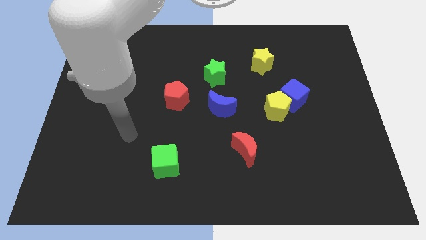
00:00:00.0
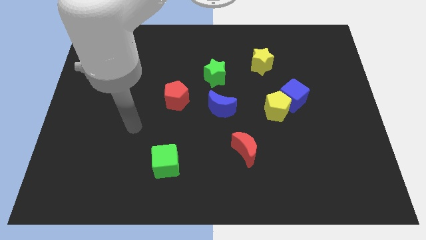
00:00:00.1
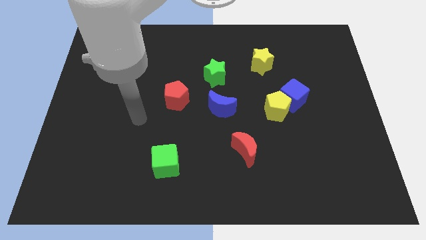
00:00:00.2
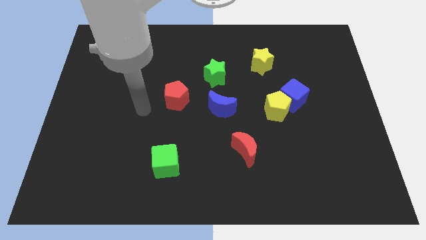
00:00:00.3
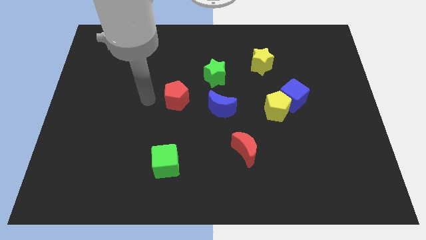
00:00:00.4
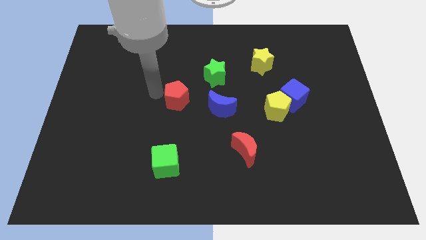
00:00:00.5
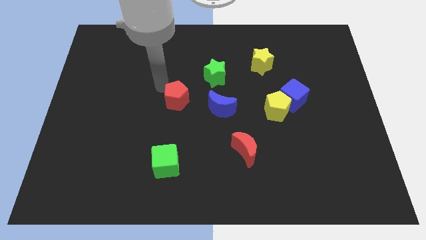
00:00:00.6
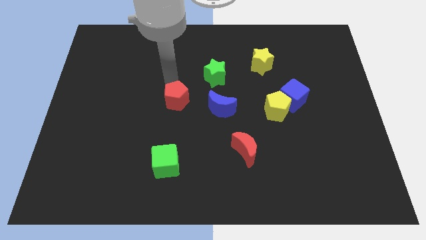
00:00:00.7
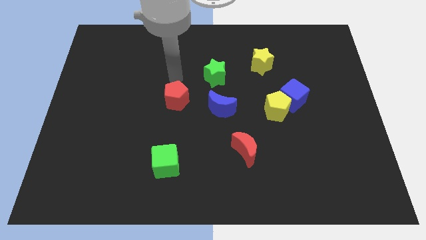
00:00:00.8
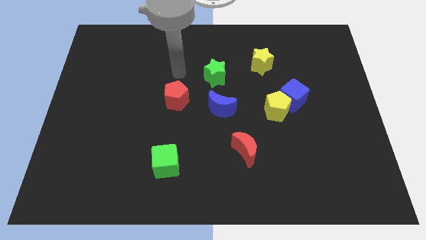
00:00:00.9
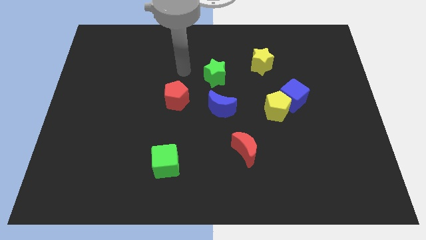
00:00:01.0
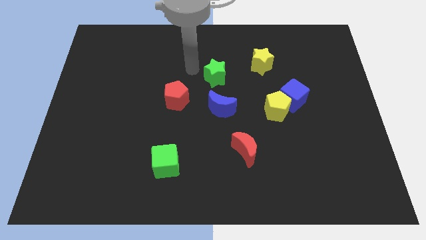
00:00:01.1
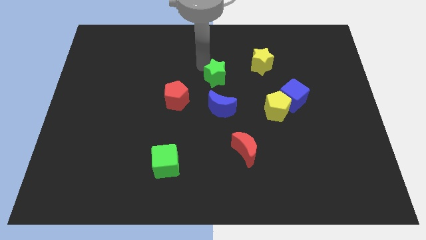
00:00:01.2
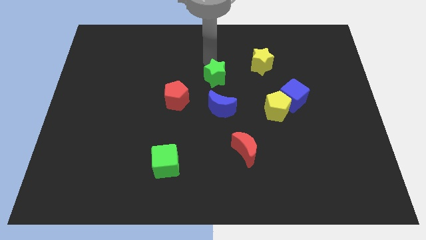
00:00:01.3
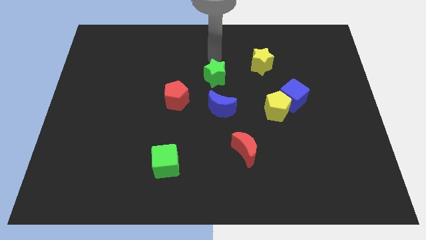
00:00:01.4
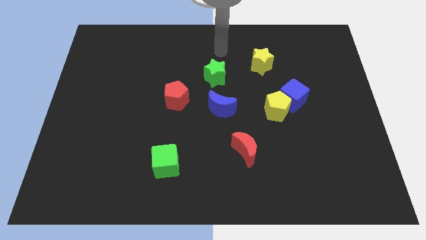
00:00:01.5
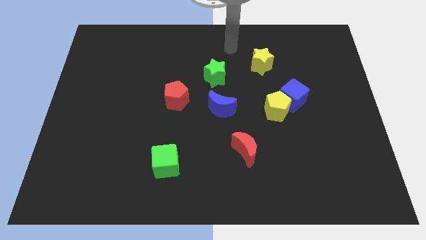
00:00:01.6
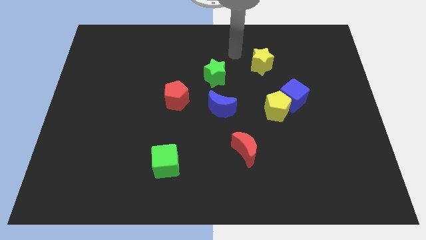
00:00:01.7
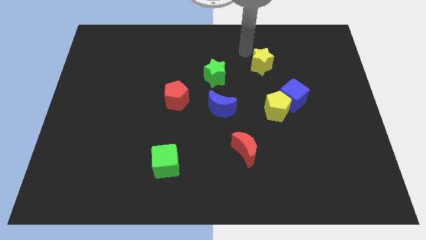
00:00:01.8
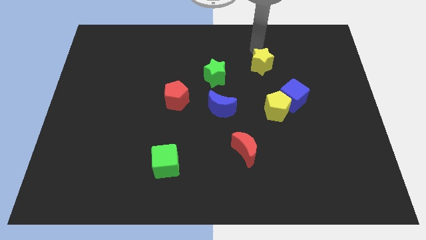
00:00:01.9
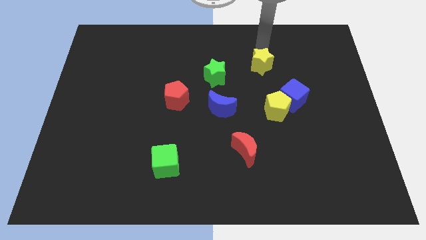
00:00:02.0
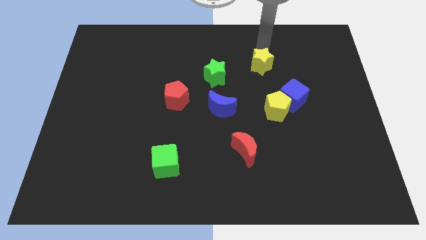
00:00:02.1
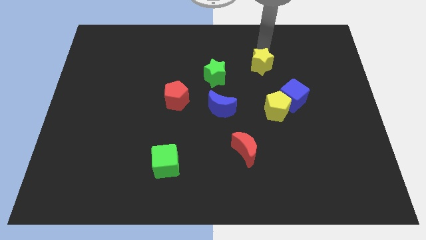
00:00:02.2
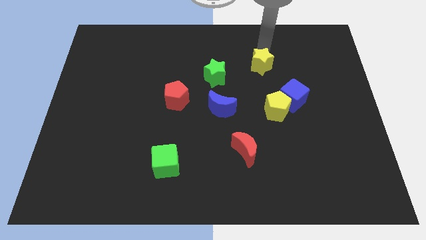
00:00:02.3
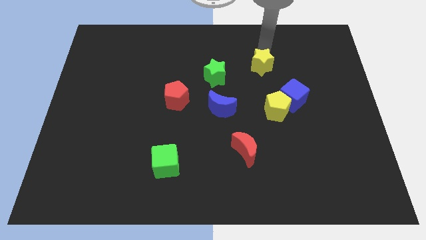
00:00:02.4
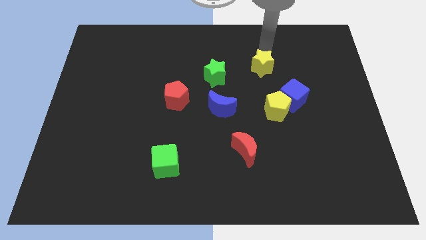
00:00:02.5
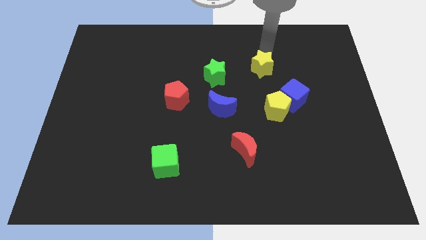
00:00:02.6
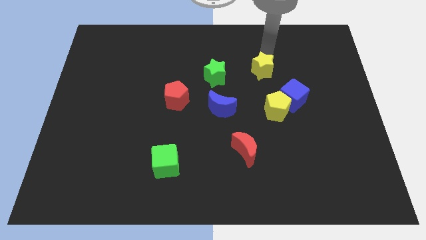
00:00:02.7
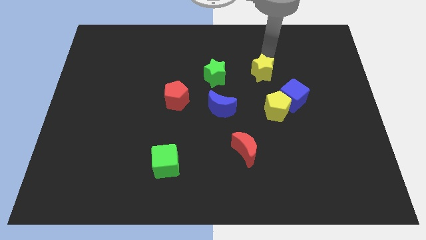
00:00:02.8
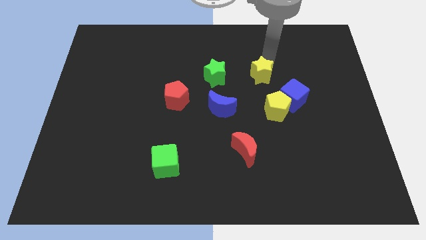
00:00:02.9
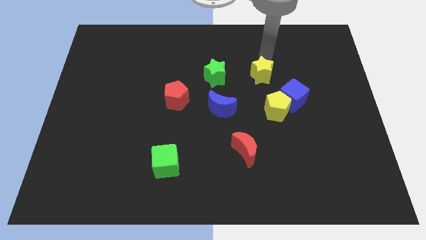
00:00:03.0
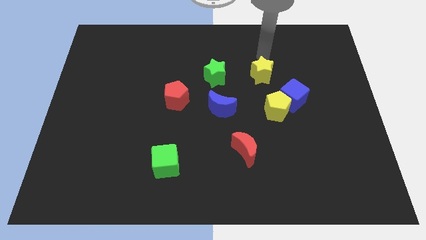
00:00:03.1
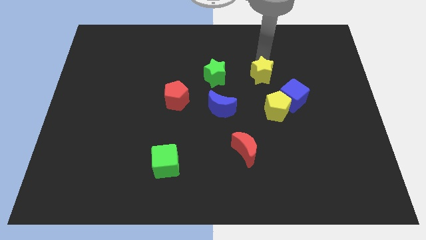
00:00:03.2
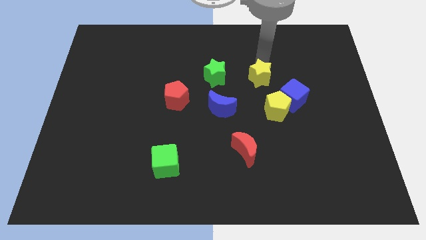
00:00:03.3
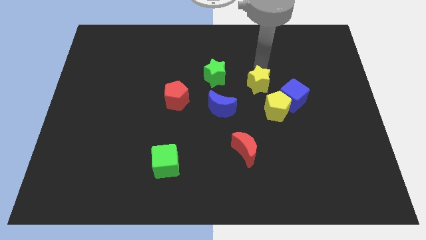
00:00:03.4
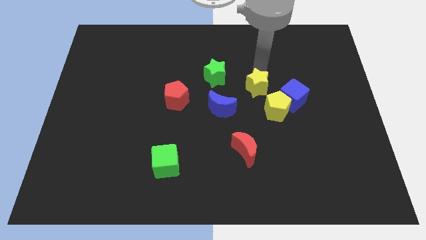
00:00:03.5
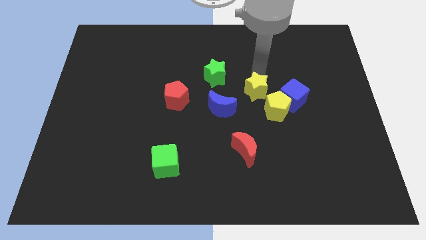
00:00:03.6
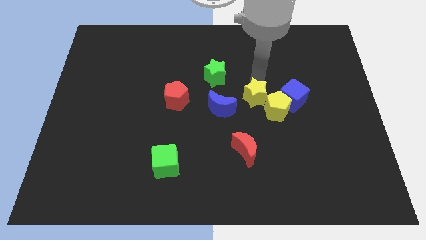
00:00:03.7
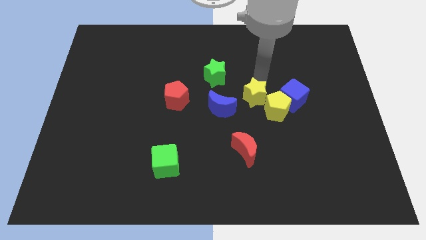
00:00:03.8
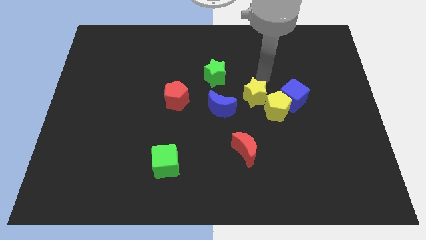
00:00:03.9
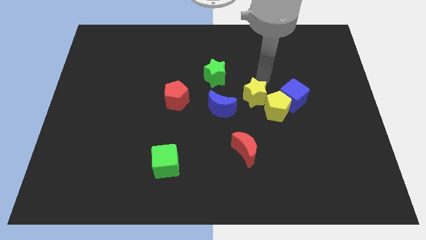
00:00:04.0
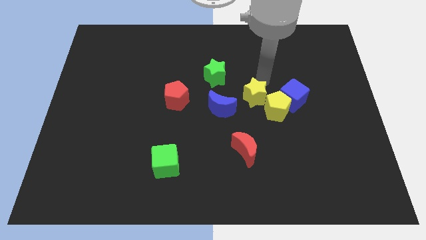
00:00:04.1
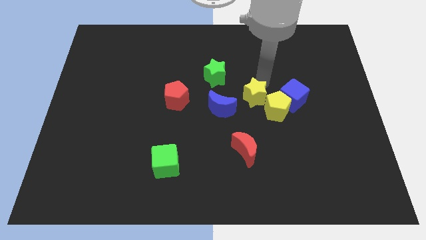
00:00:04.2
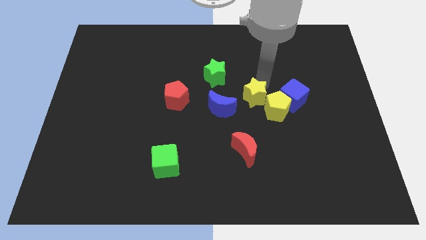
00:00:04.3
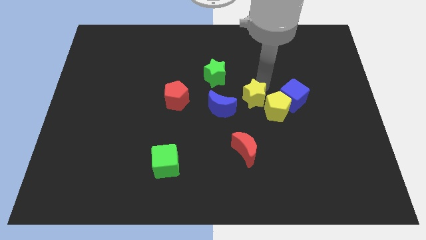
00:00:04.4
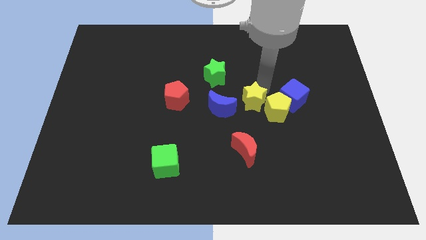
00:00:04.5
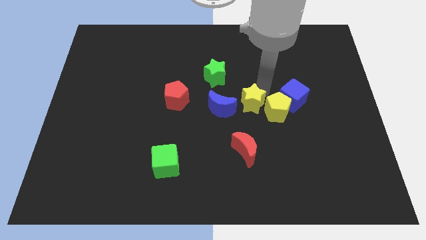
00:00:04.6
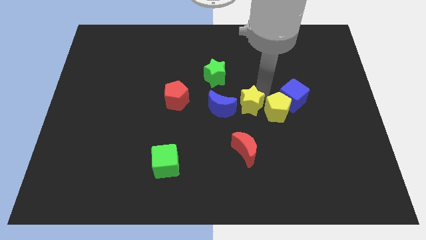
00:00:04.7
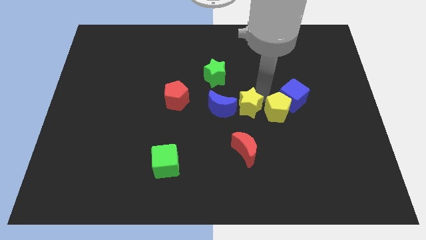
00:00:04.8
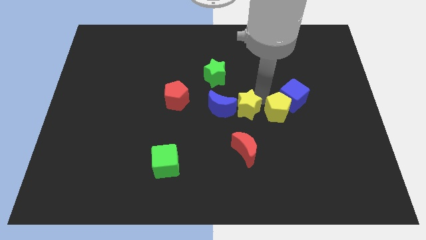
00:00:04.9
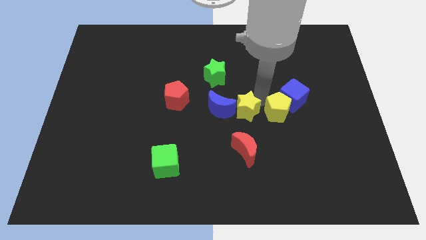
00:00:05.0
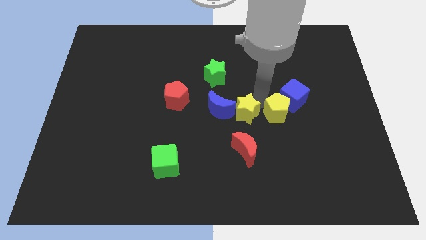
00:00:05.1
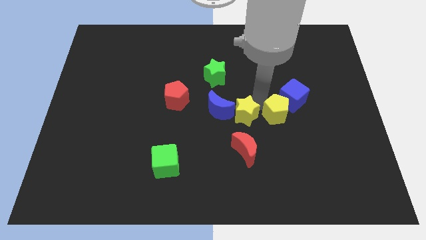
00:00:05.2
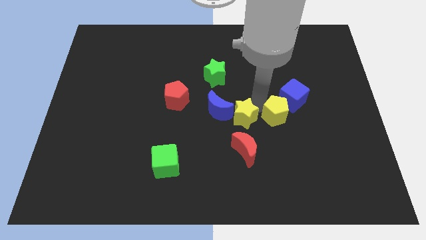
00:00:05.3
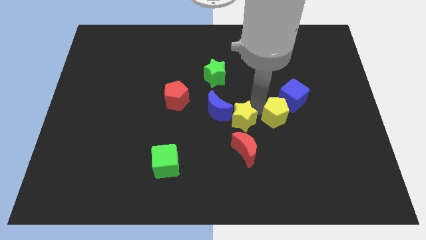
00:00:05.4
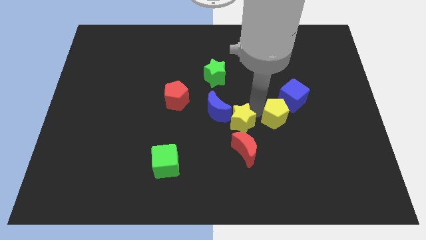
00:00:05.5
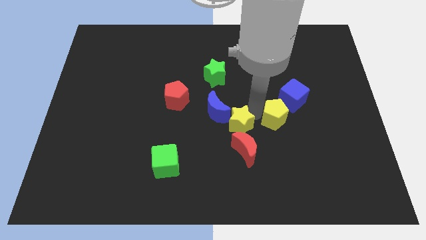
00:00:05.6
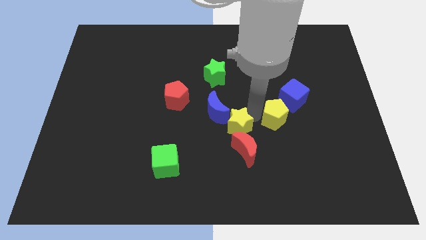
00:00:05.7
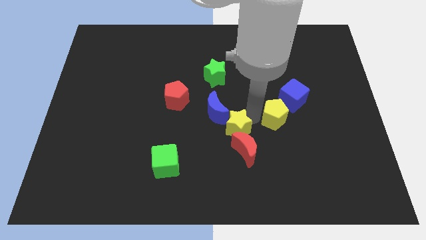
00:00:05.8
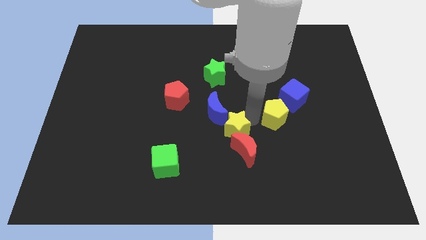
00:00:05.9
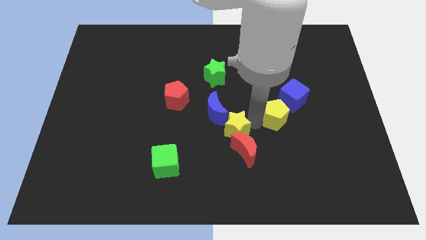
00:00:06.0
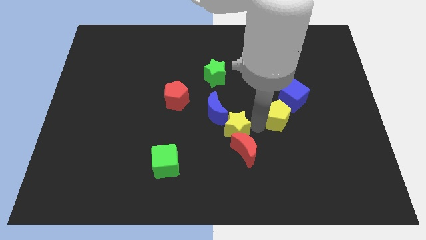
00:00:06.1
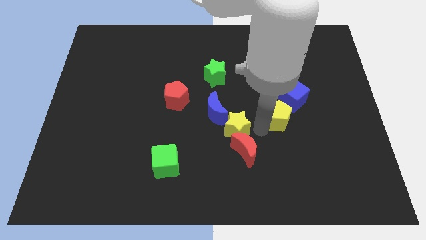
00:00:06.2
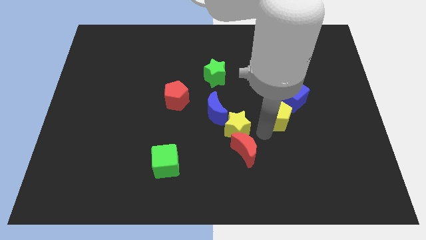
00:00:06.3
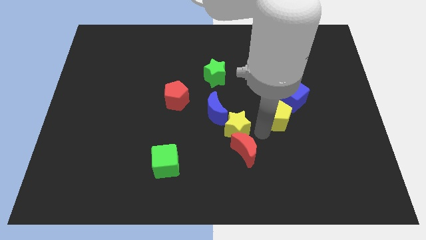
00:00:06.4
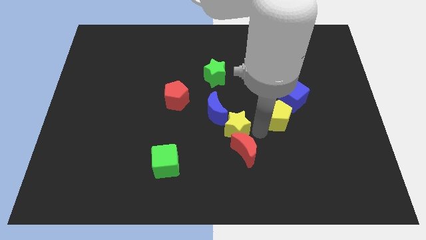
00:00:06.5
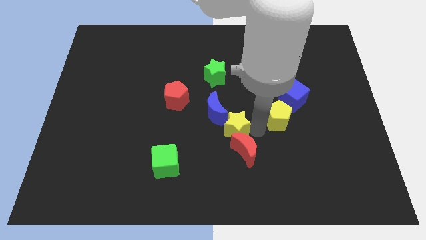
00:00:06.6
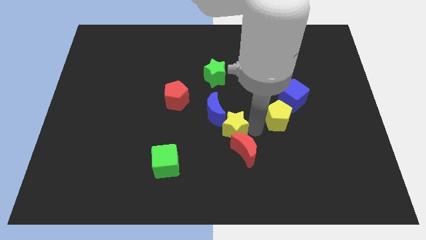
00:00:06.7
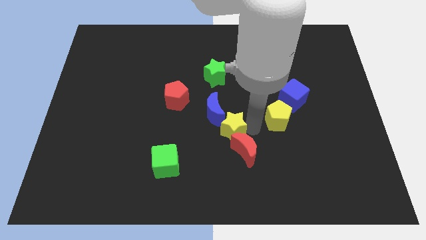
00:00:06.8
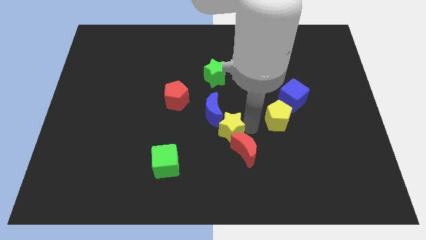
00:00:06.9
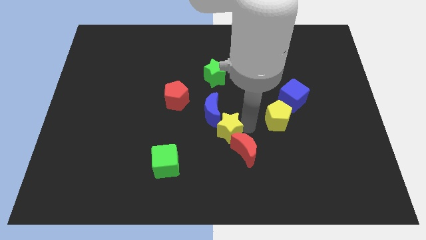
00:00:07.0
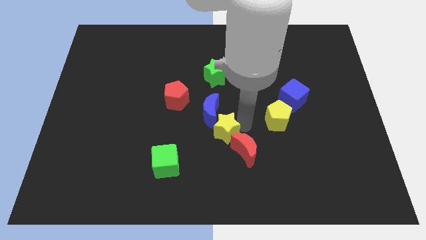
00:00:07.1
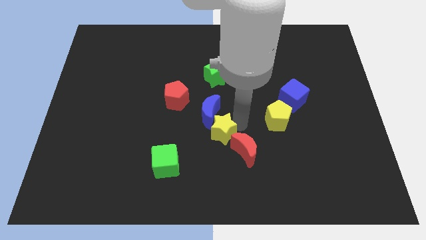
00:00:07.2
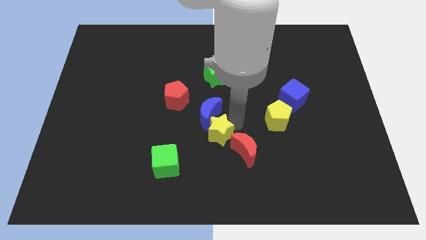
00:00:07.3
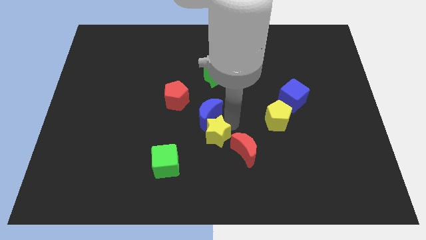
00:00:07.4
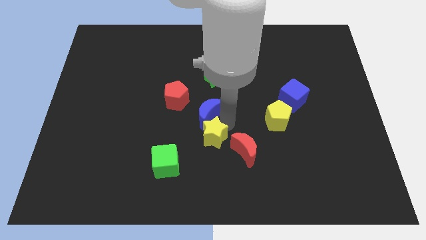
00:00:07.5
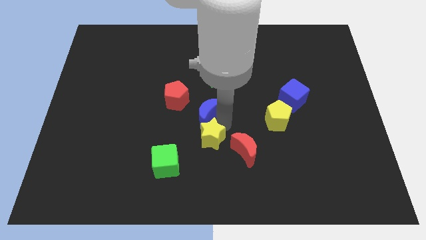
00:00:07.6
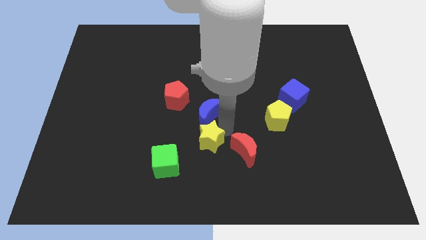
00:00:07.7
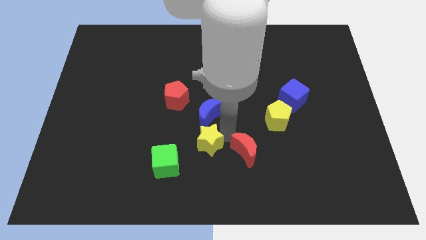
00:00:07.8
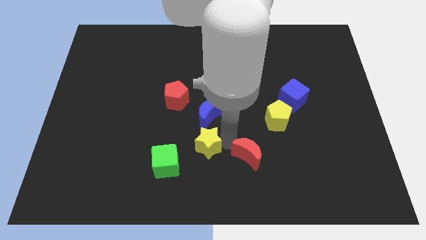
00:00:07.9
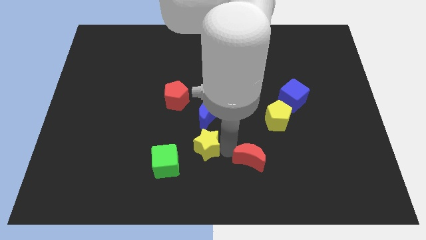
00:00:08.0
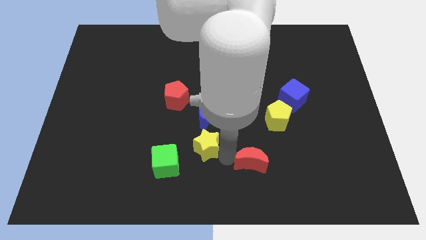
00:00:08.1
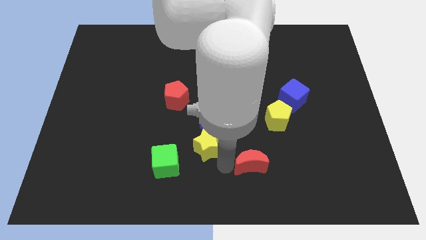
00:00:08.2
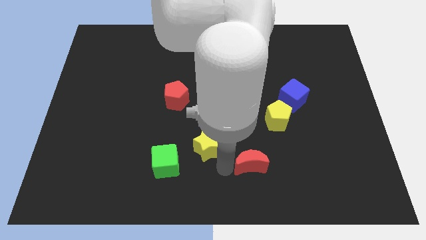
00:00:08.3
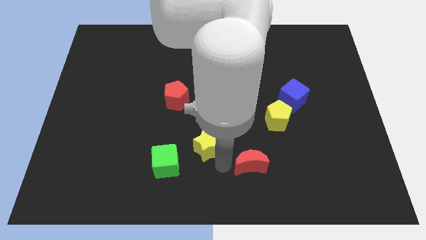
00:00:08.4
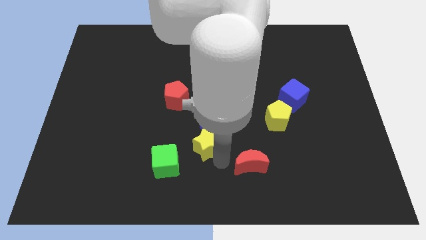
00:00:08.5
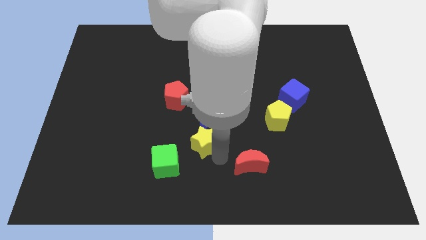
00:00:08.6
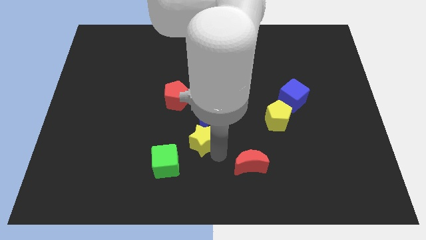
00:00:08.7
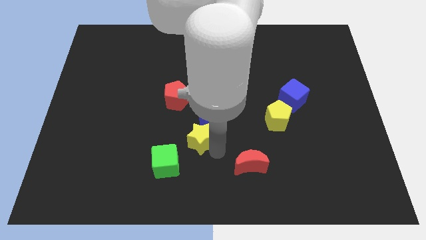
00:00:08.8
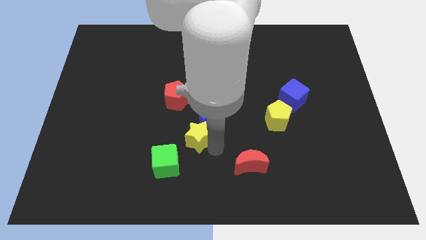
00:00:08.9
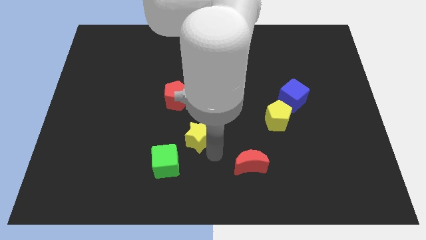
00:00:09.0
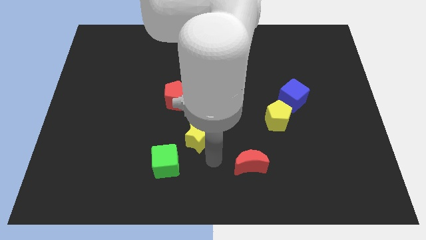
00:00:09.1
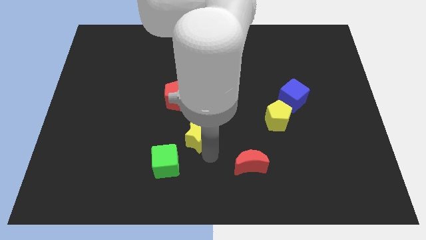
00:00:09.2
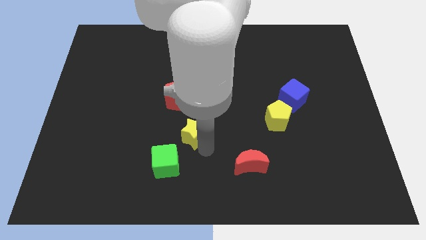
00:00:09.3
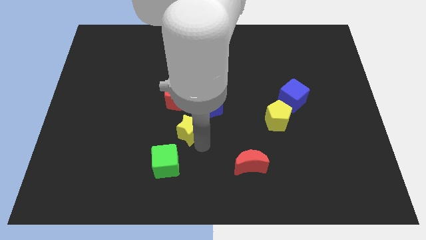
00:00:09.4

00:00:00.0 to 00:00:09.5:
move the yellow star to the top of the green cube
